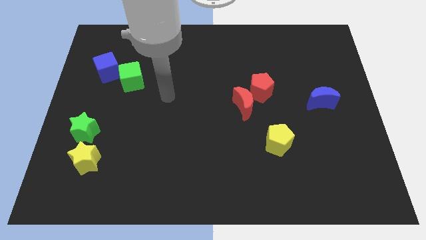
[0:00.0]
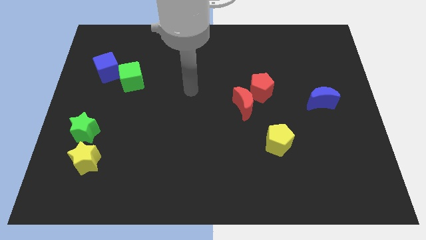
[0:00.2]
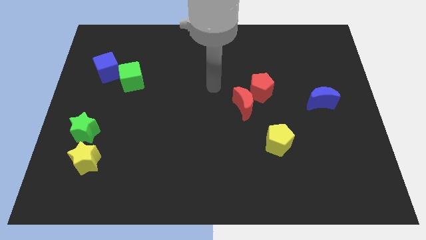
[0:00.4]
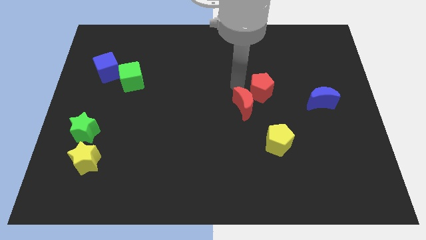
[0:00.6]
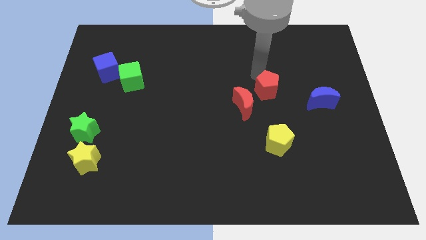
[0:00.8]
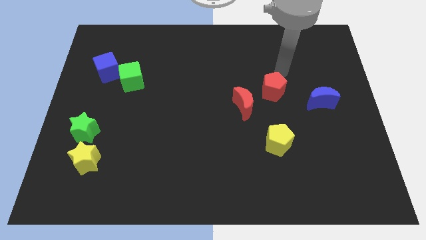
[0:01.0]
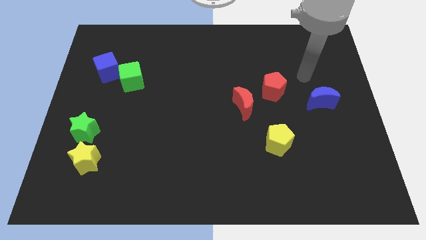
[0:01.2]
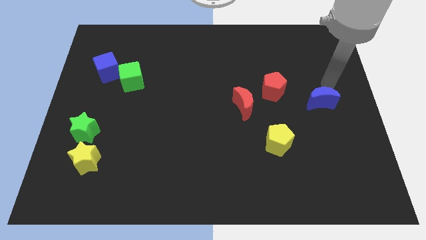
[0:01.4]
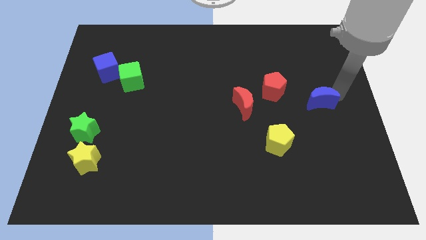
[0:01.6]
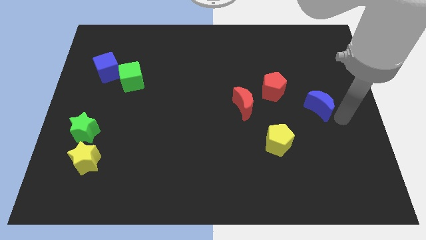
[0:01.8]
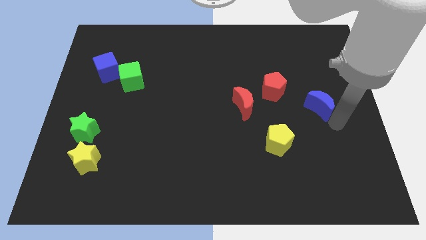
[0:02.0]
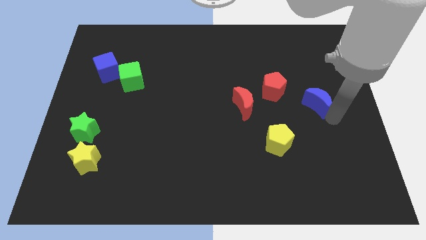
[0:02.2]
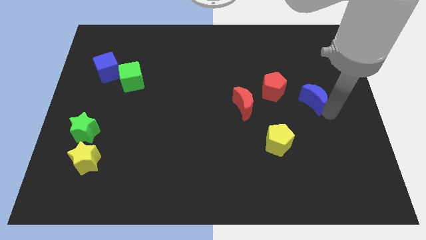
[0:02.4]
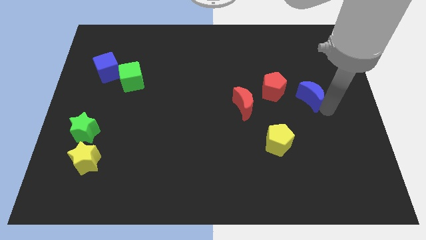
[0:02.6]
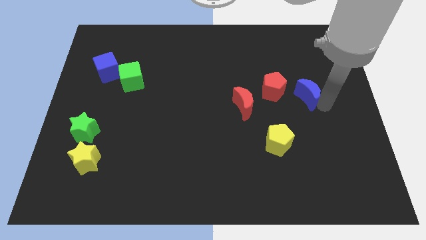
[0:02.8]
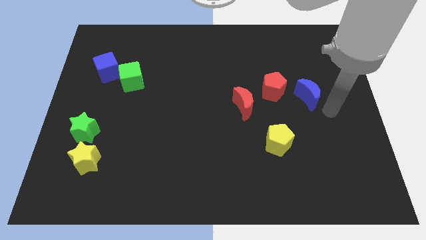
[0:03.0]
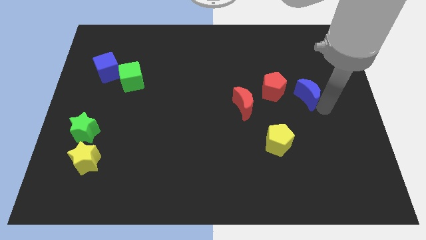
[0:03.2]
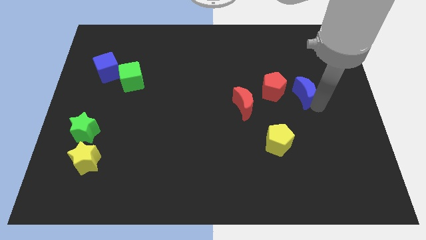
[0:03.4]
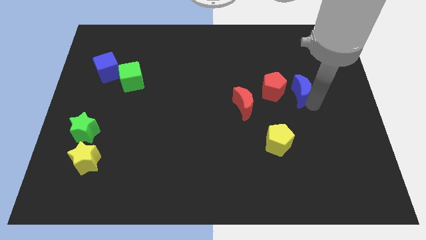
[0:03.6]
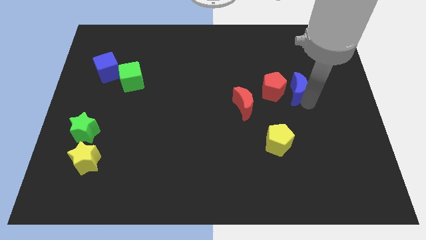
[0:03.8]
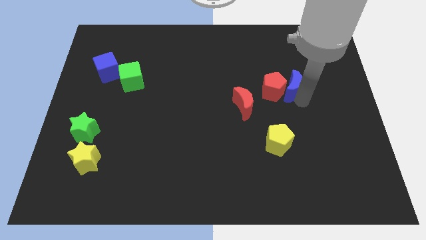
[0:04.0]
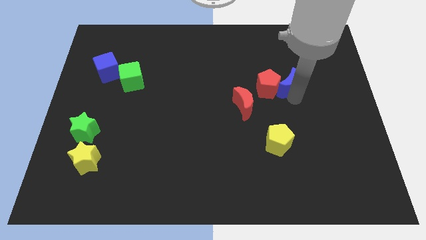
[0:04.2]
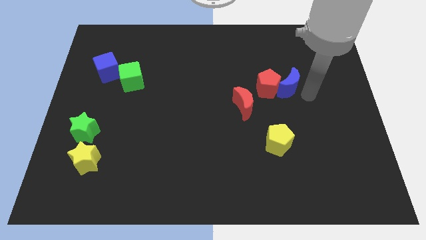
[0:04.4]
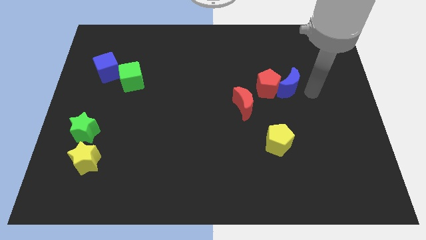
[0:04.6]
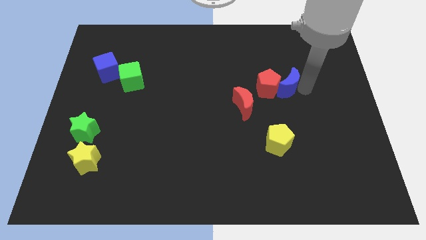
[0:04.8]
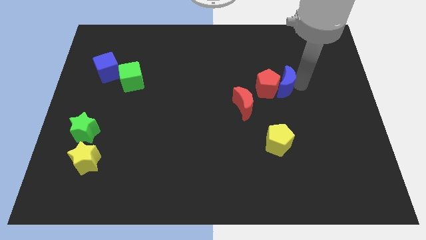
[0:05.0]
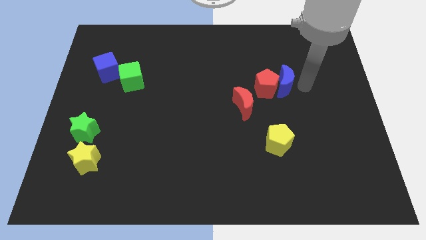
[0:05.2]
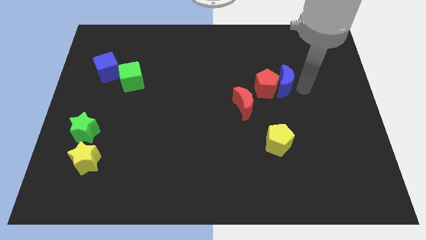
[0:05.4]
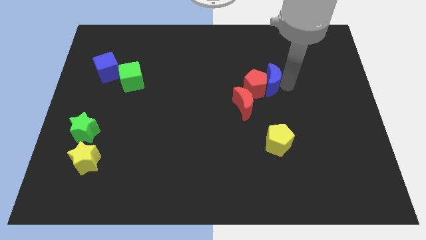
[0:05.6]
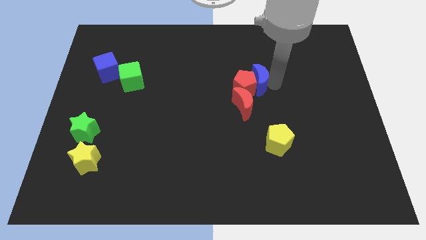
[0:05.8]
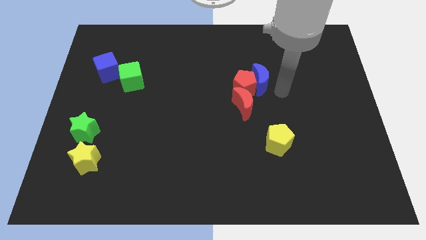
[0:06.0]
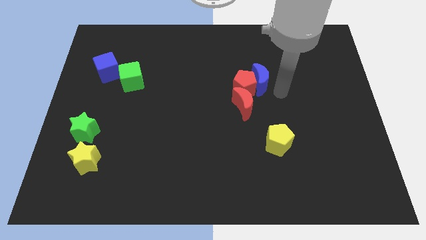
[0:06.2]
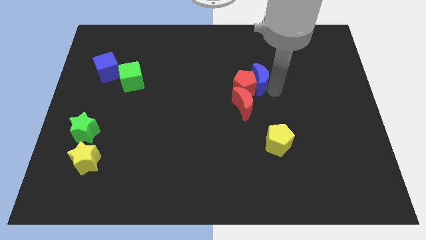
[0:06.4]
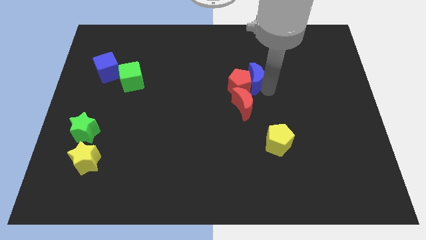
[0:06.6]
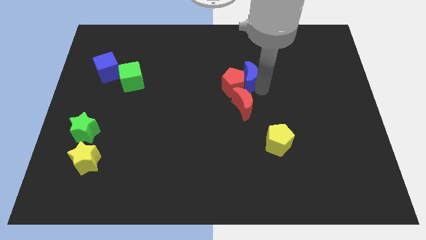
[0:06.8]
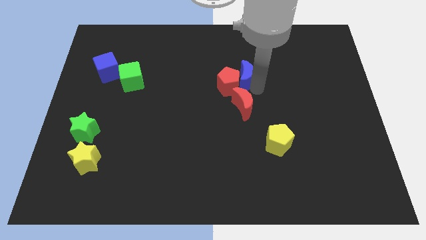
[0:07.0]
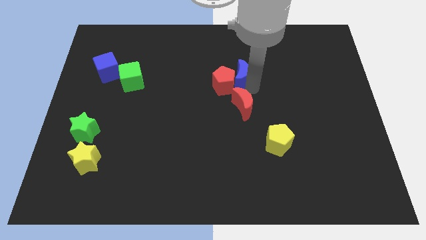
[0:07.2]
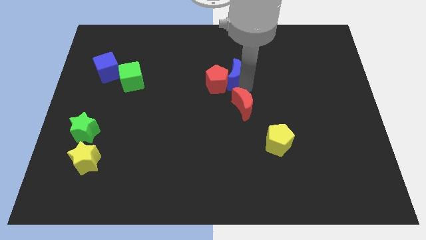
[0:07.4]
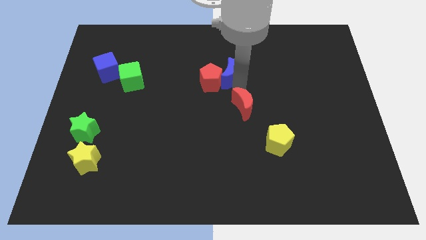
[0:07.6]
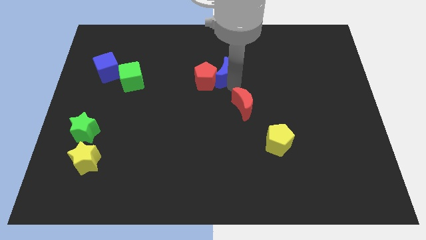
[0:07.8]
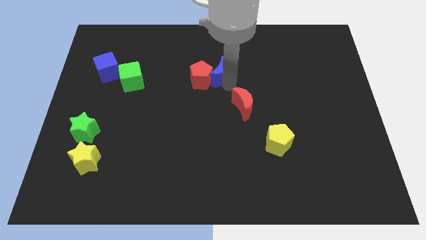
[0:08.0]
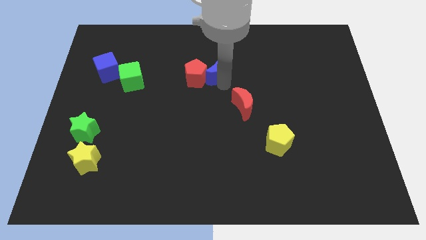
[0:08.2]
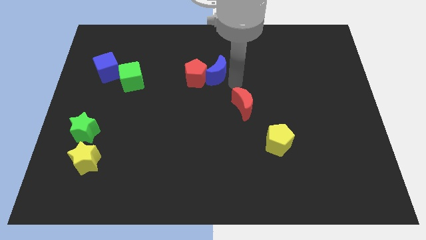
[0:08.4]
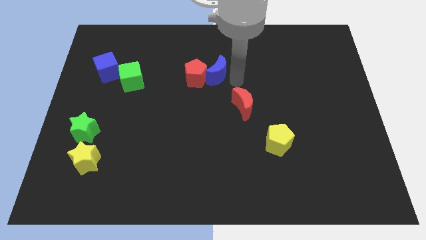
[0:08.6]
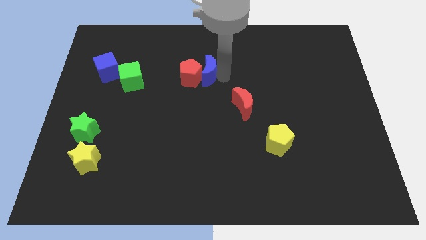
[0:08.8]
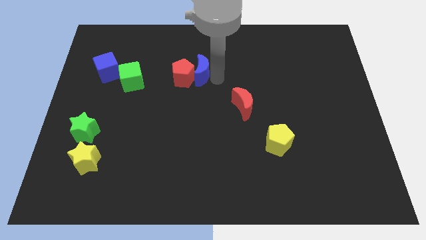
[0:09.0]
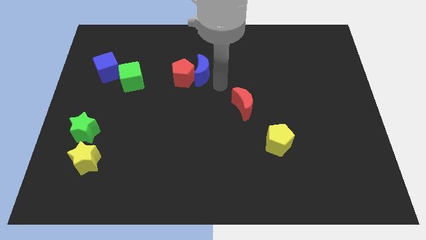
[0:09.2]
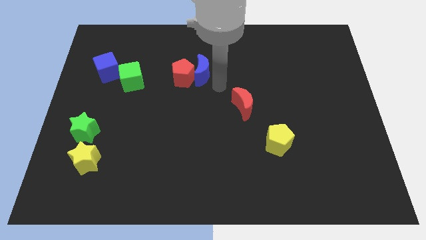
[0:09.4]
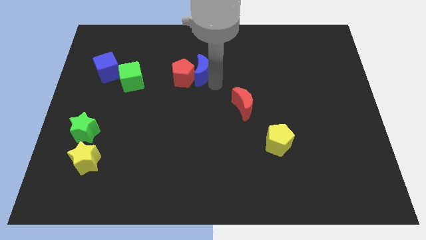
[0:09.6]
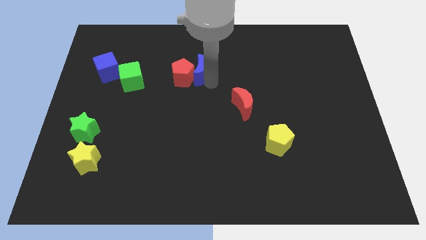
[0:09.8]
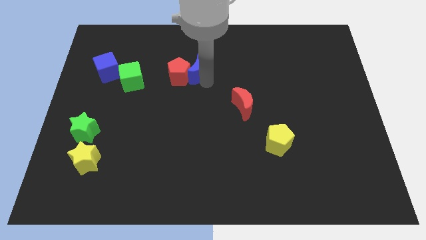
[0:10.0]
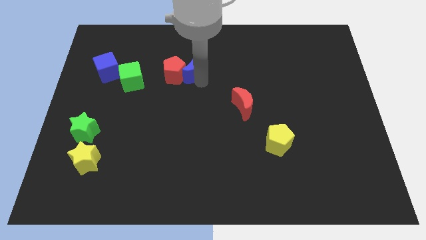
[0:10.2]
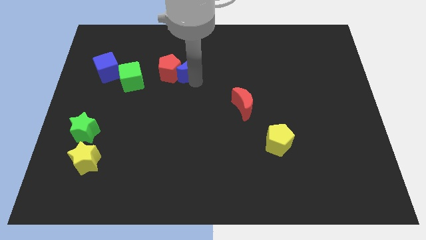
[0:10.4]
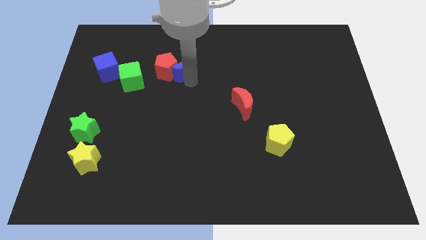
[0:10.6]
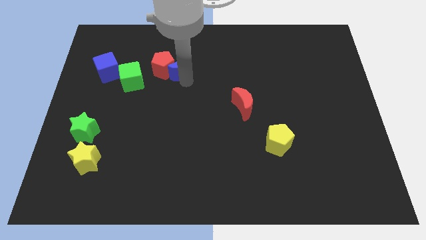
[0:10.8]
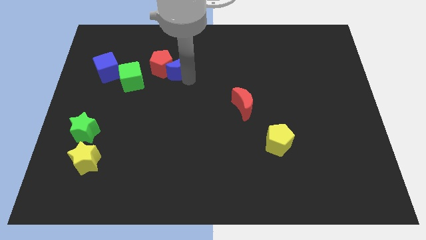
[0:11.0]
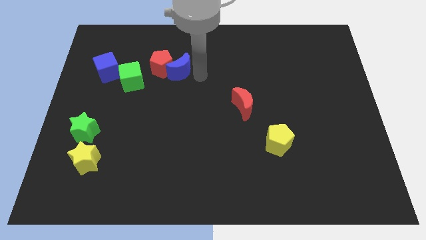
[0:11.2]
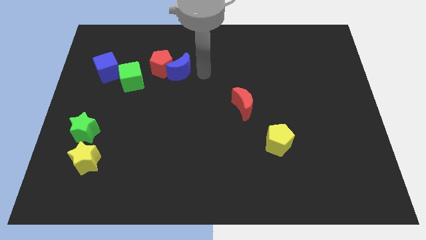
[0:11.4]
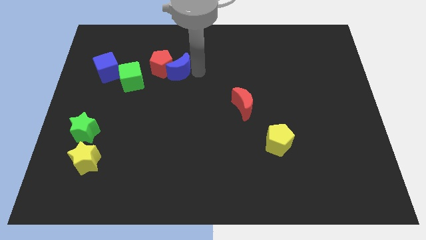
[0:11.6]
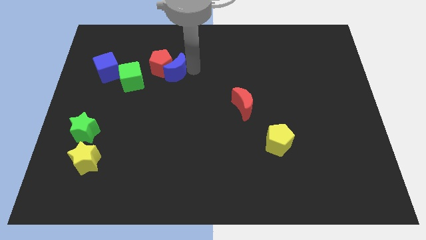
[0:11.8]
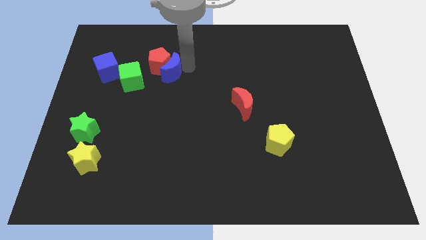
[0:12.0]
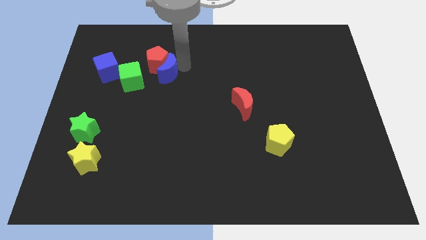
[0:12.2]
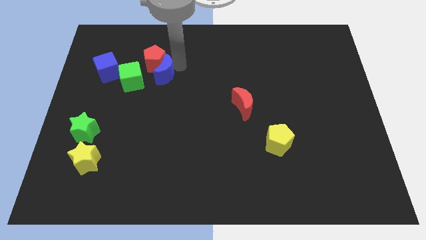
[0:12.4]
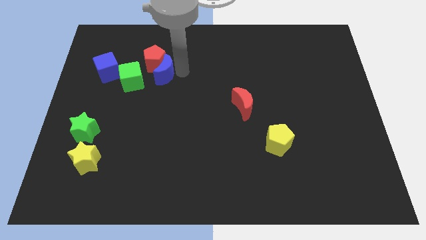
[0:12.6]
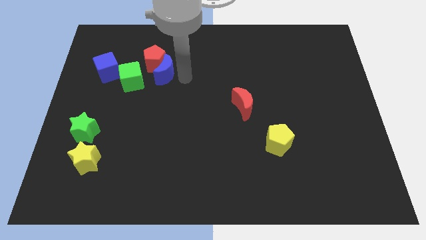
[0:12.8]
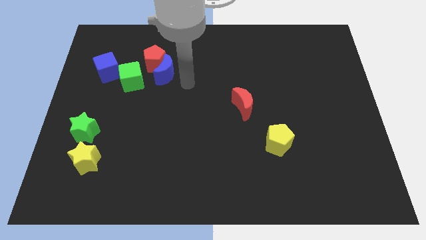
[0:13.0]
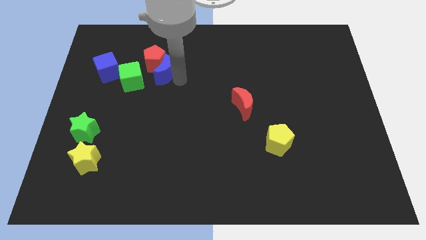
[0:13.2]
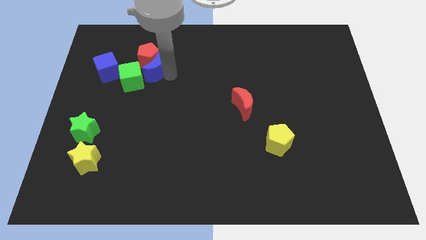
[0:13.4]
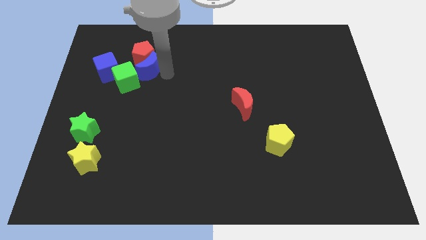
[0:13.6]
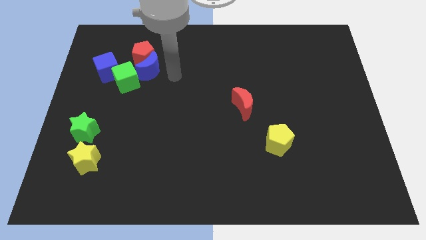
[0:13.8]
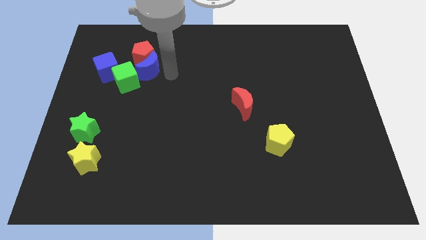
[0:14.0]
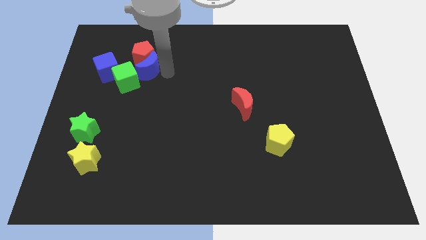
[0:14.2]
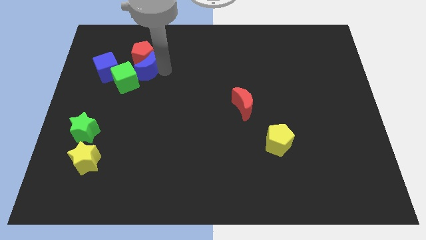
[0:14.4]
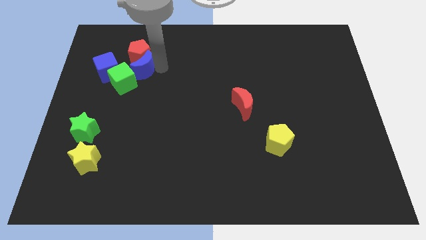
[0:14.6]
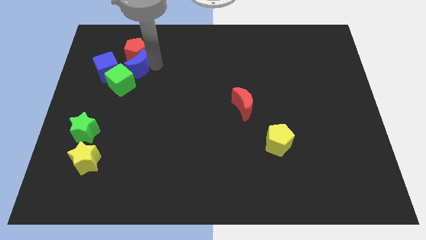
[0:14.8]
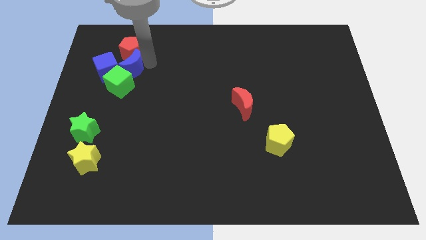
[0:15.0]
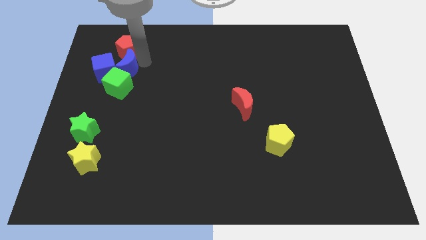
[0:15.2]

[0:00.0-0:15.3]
push the blue moon close to the blue cube

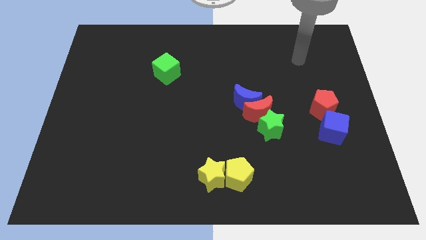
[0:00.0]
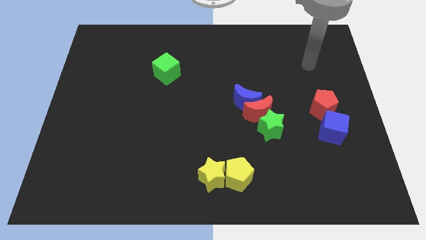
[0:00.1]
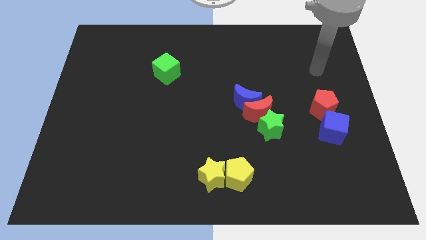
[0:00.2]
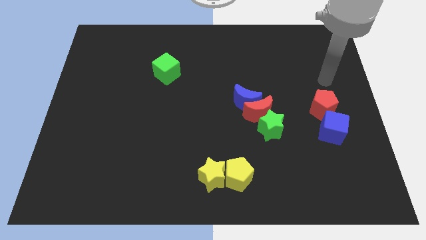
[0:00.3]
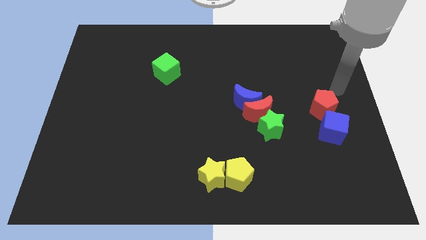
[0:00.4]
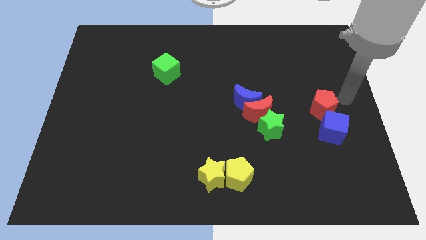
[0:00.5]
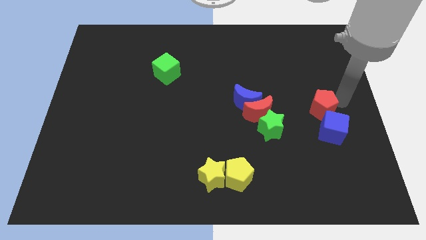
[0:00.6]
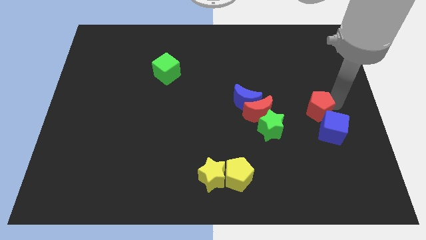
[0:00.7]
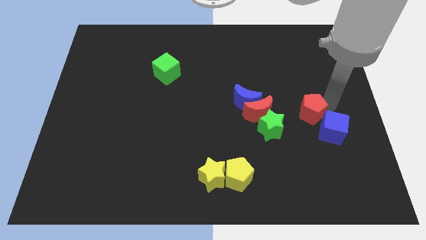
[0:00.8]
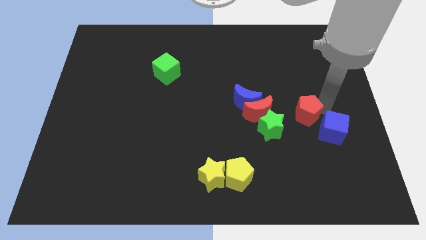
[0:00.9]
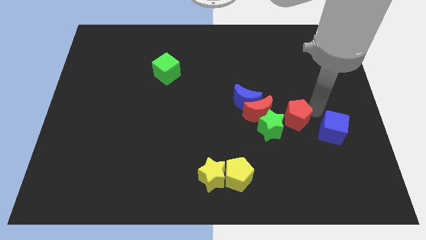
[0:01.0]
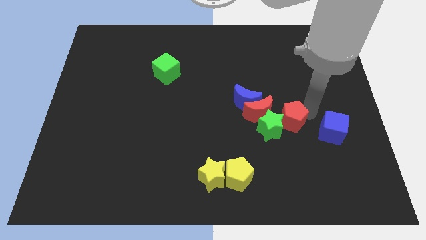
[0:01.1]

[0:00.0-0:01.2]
put the red pentagon to the green star
